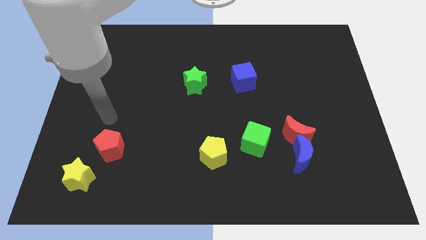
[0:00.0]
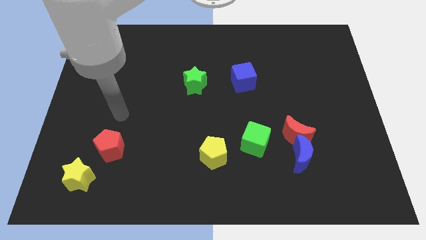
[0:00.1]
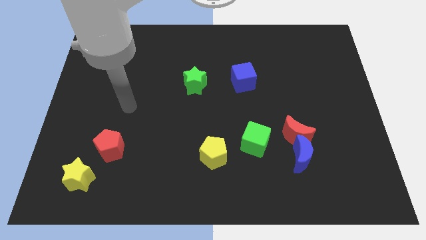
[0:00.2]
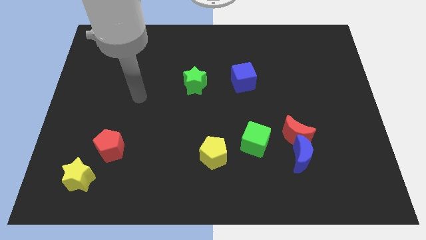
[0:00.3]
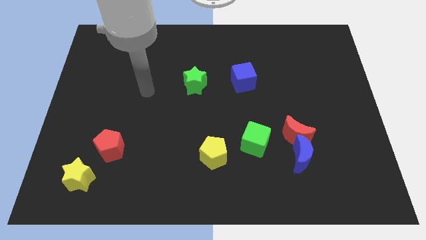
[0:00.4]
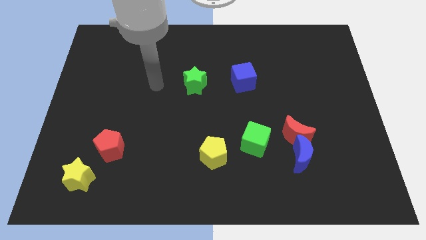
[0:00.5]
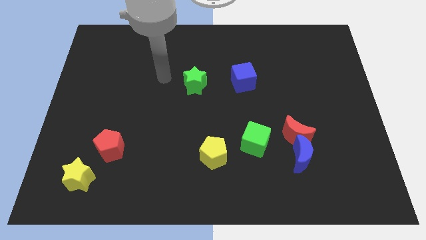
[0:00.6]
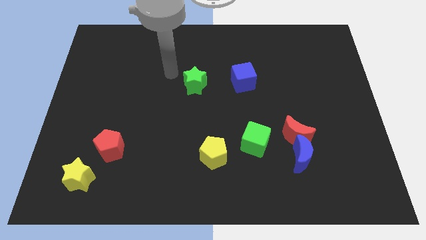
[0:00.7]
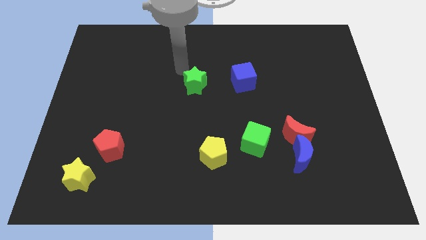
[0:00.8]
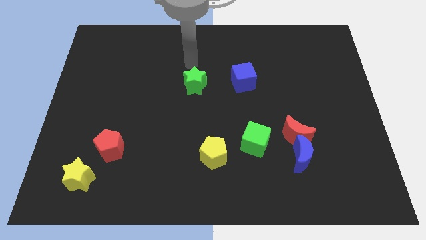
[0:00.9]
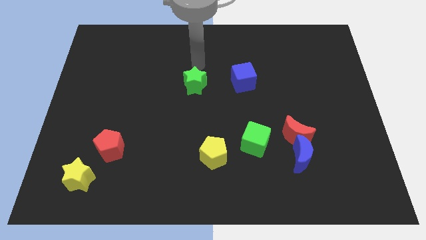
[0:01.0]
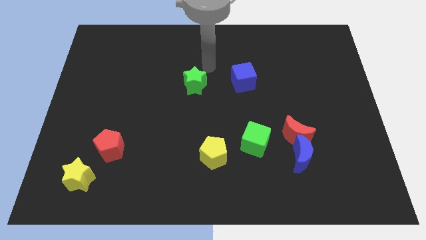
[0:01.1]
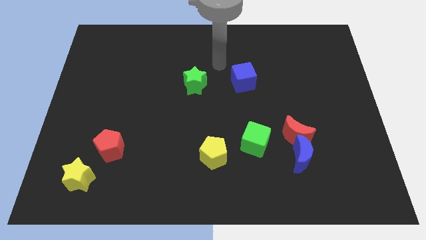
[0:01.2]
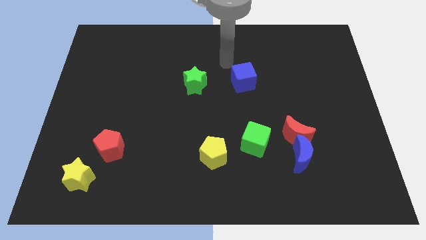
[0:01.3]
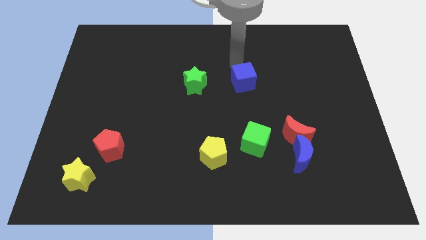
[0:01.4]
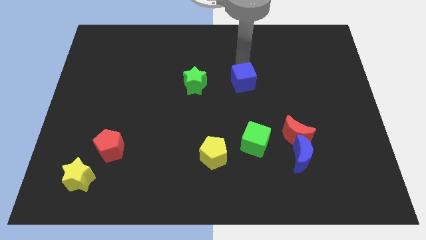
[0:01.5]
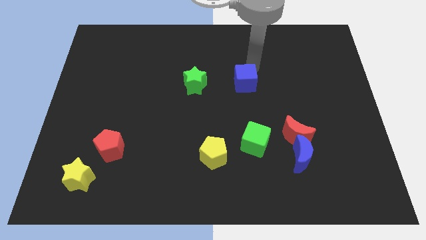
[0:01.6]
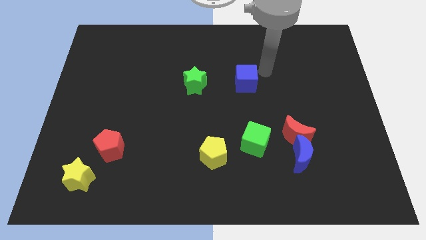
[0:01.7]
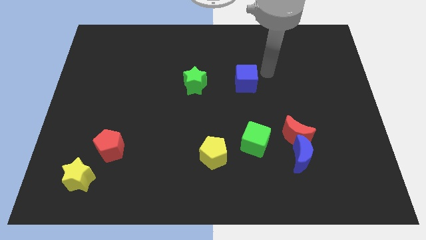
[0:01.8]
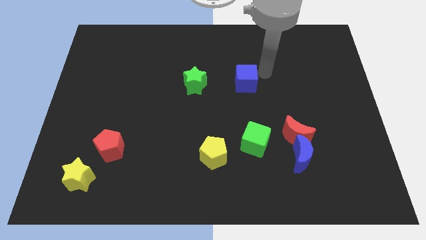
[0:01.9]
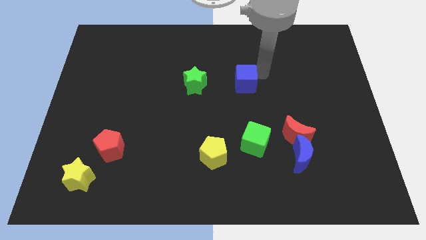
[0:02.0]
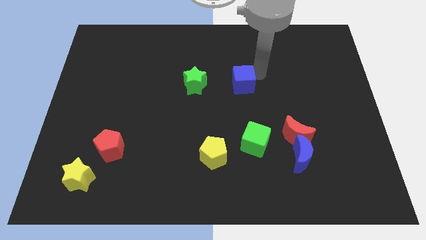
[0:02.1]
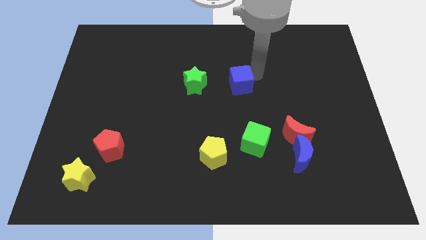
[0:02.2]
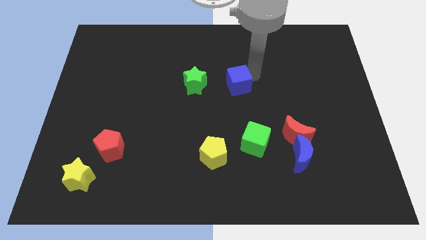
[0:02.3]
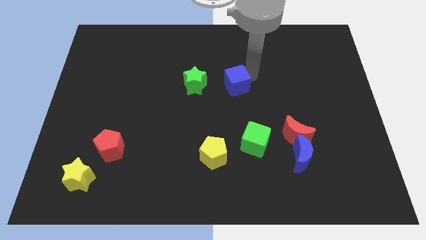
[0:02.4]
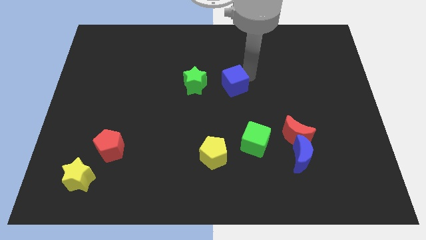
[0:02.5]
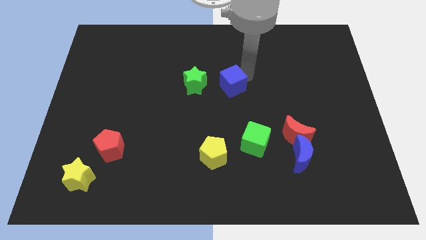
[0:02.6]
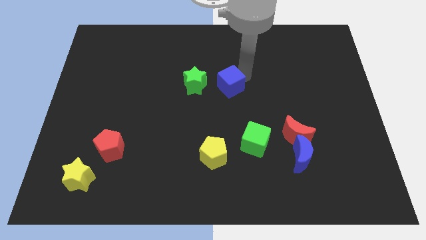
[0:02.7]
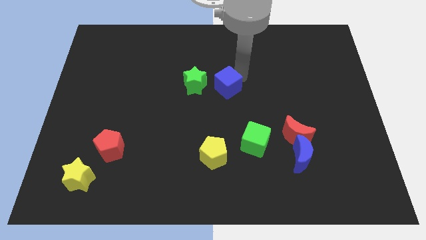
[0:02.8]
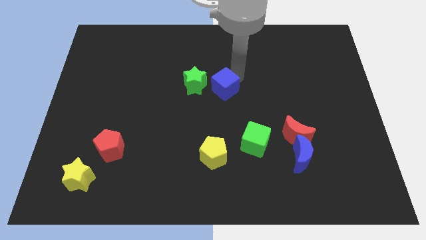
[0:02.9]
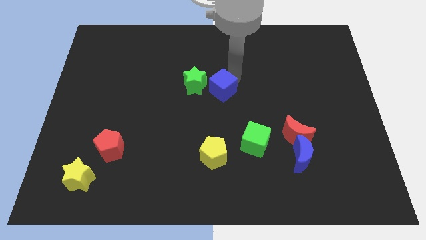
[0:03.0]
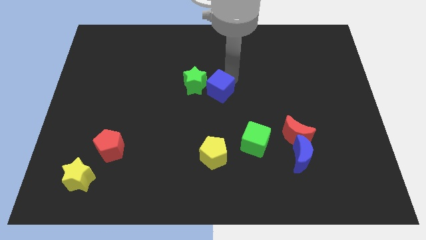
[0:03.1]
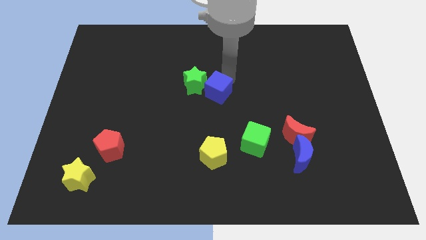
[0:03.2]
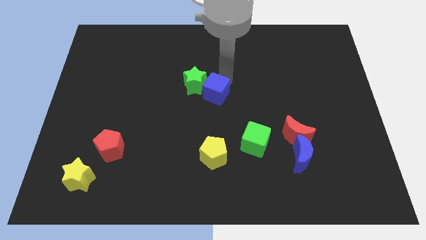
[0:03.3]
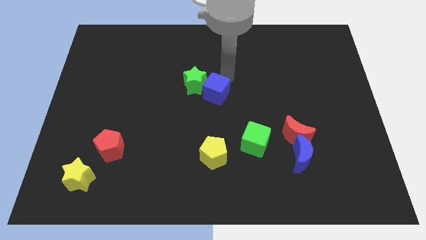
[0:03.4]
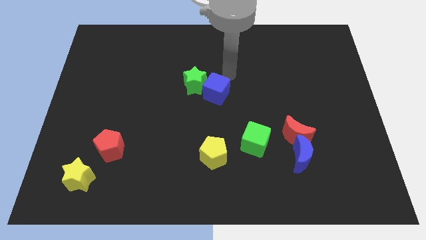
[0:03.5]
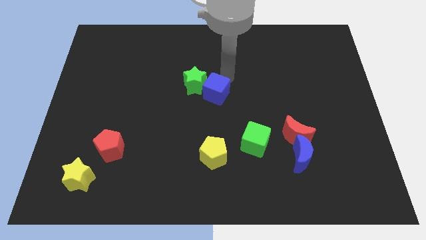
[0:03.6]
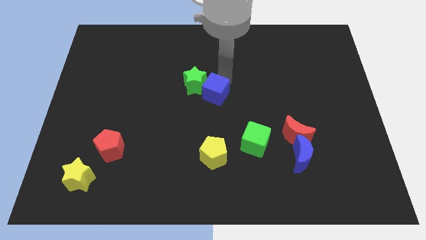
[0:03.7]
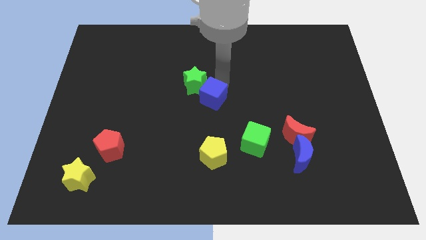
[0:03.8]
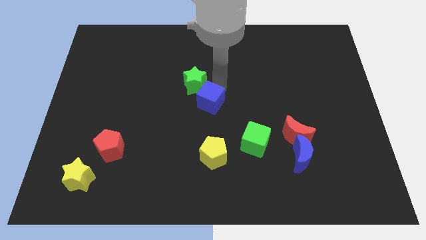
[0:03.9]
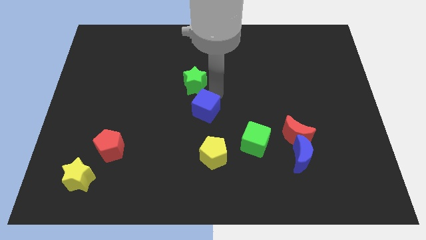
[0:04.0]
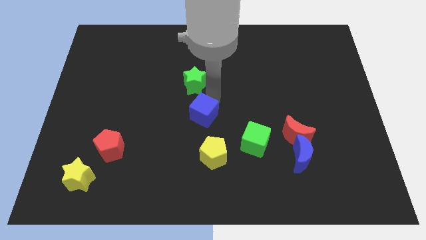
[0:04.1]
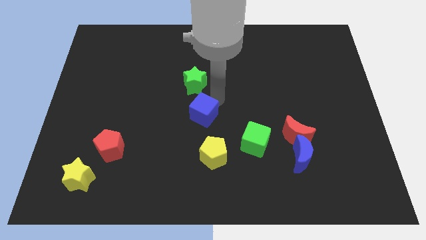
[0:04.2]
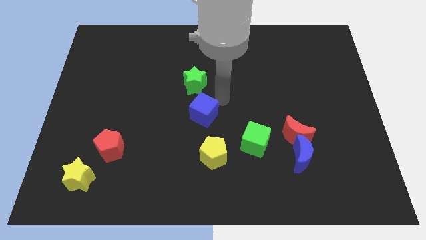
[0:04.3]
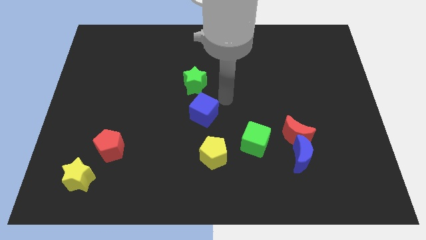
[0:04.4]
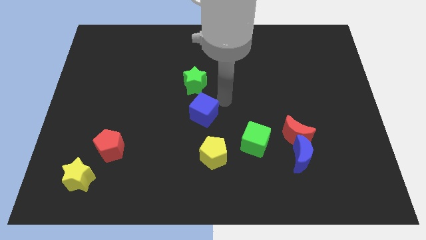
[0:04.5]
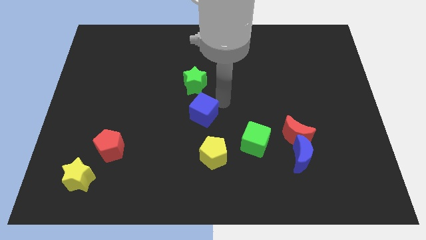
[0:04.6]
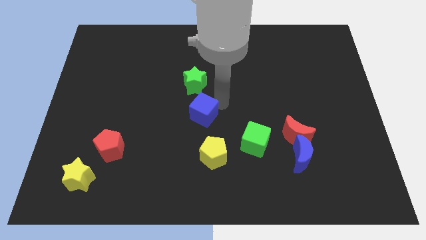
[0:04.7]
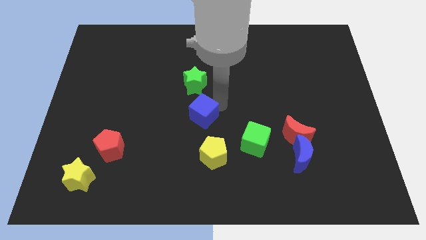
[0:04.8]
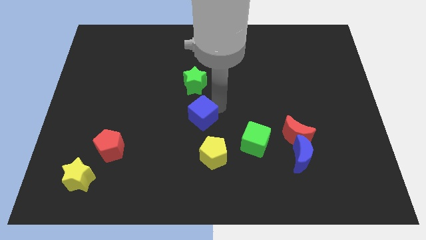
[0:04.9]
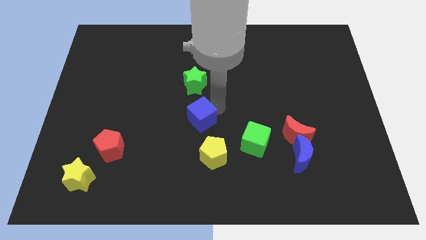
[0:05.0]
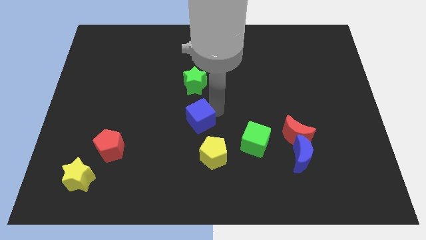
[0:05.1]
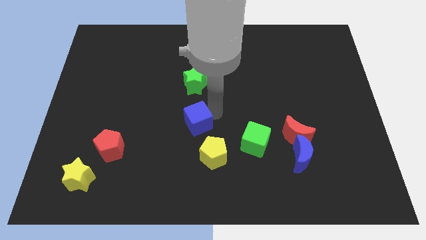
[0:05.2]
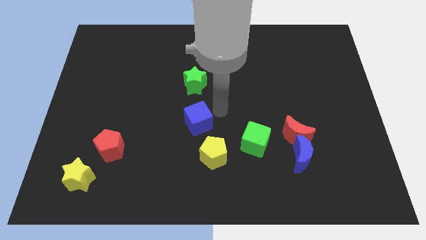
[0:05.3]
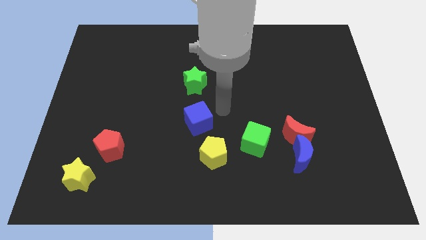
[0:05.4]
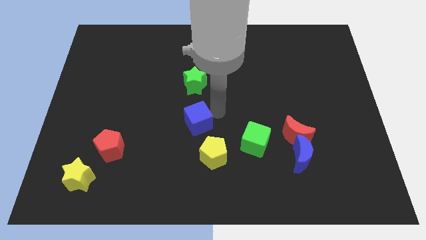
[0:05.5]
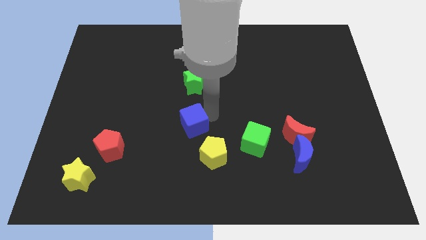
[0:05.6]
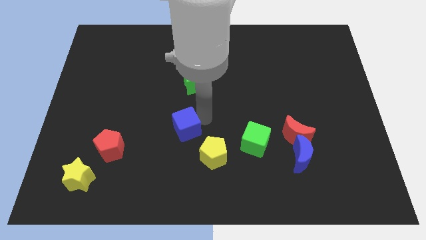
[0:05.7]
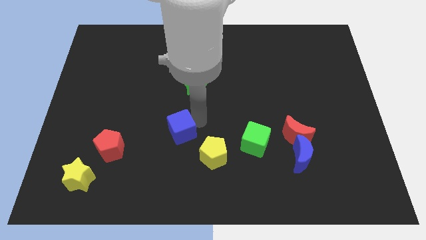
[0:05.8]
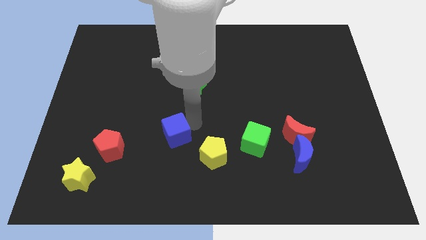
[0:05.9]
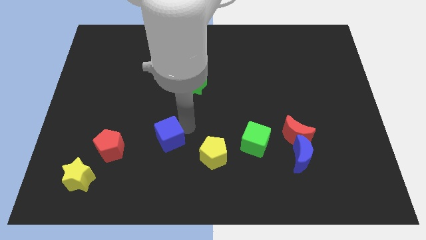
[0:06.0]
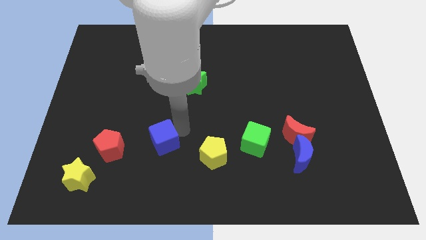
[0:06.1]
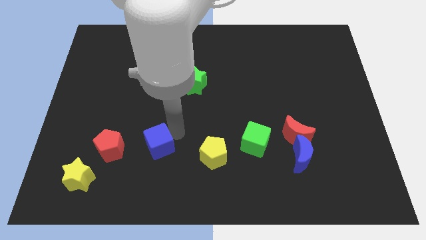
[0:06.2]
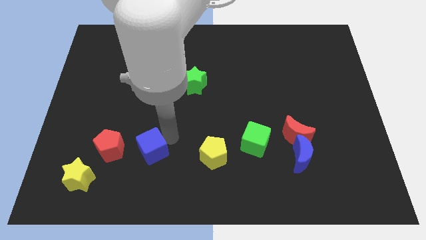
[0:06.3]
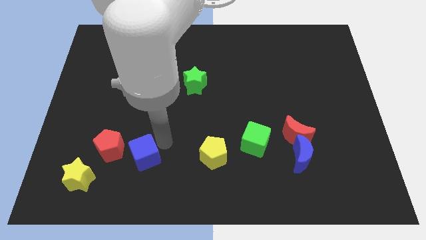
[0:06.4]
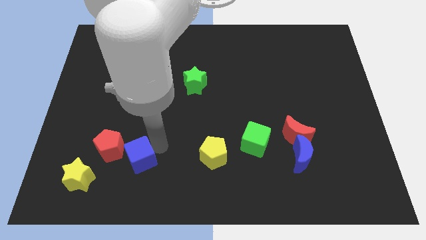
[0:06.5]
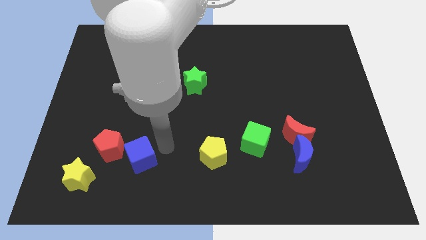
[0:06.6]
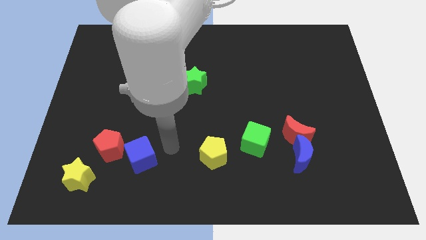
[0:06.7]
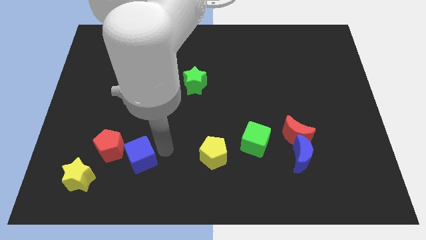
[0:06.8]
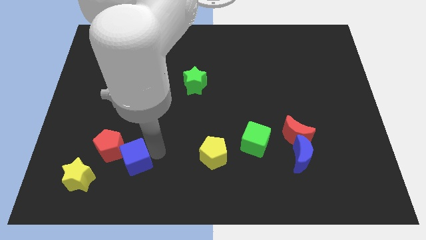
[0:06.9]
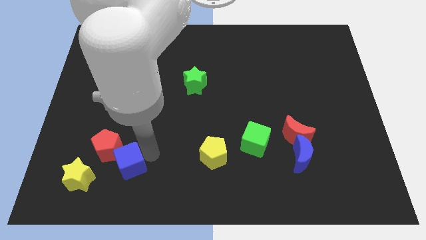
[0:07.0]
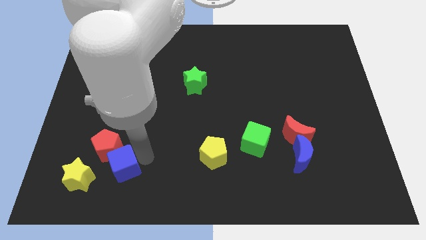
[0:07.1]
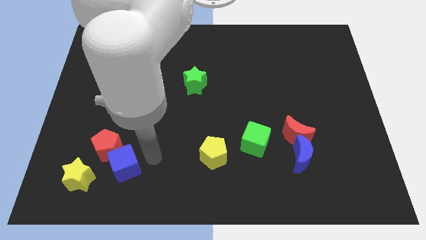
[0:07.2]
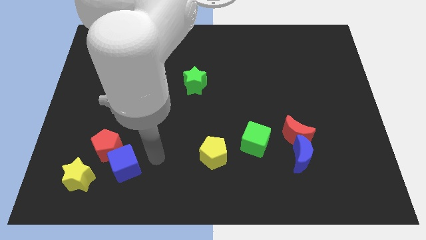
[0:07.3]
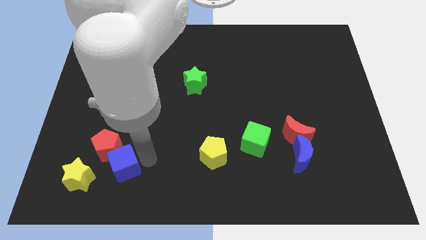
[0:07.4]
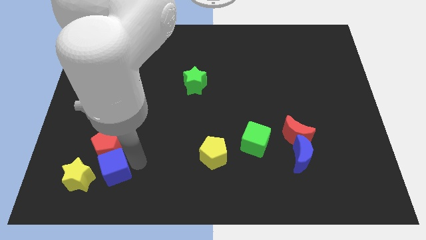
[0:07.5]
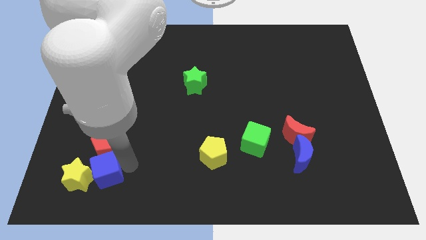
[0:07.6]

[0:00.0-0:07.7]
put the blue cube close to the yellow star
